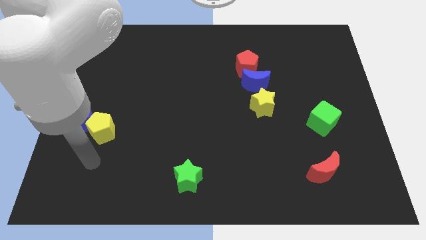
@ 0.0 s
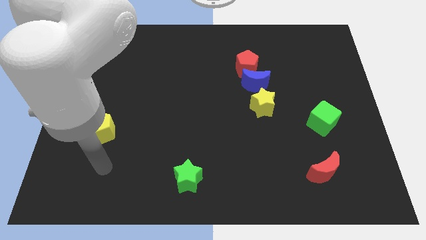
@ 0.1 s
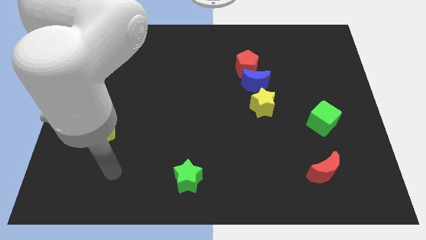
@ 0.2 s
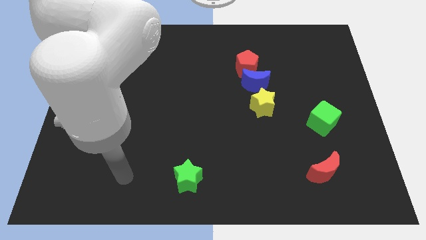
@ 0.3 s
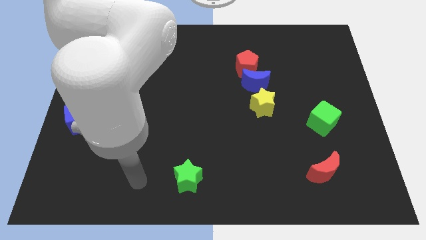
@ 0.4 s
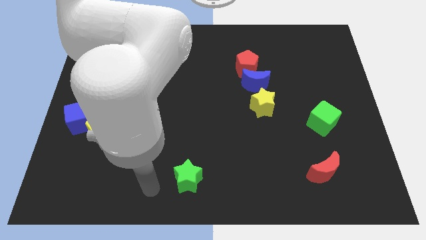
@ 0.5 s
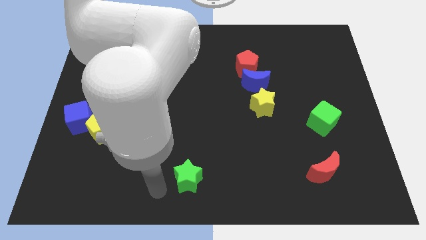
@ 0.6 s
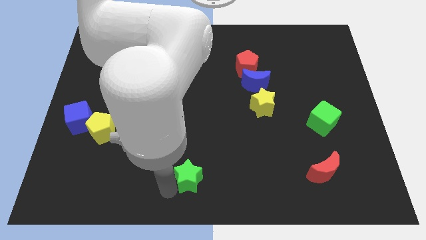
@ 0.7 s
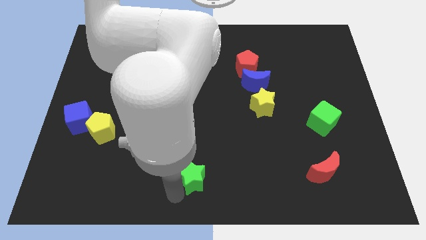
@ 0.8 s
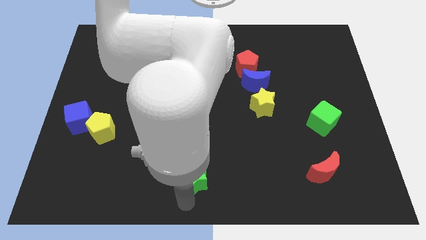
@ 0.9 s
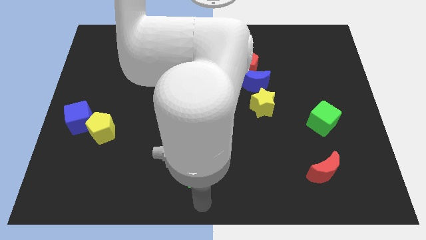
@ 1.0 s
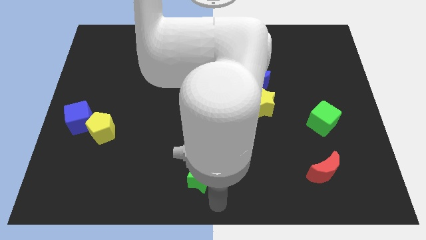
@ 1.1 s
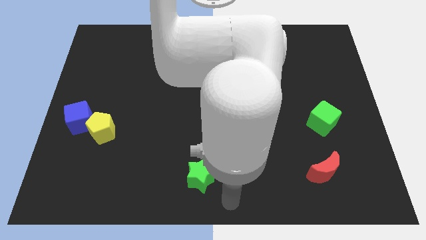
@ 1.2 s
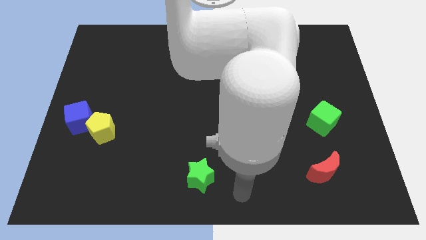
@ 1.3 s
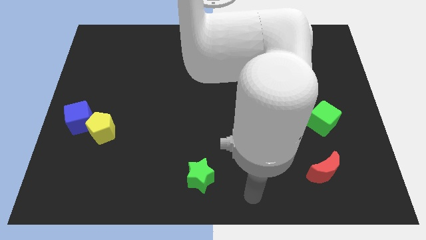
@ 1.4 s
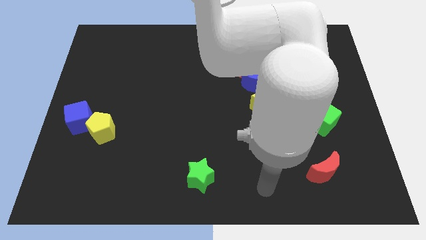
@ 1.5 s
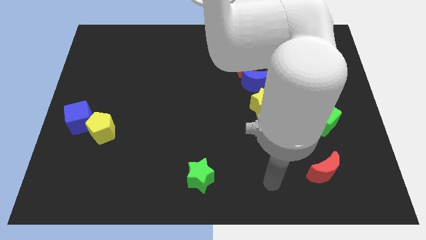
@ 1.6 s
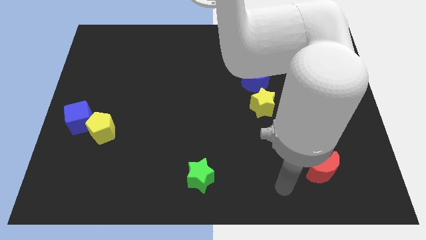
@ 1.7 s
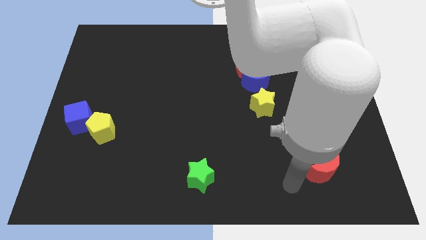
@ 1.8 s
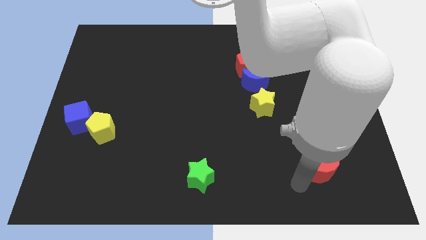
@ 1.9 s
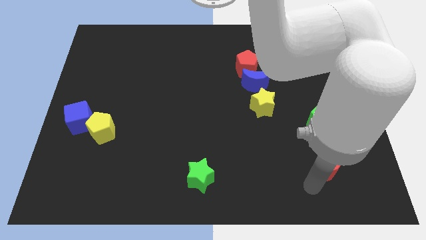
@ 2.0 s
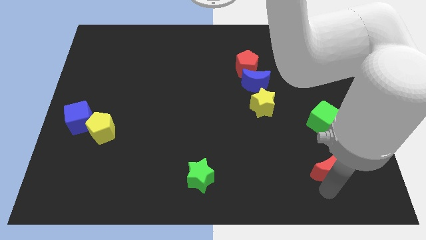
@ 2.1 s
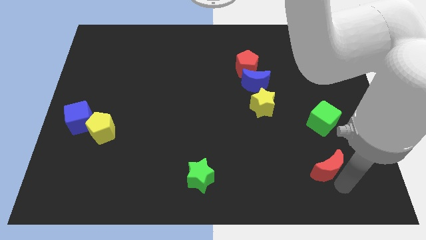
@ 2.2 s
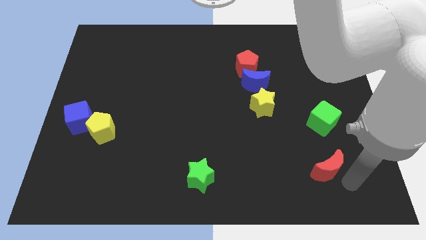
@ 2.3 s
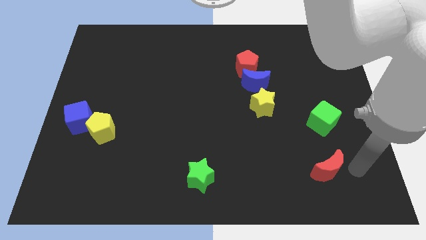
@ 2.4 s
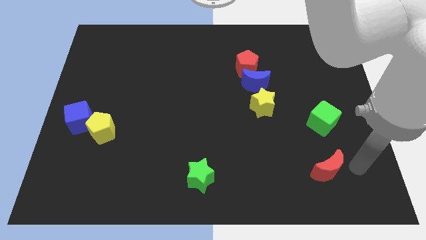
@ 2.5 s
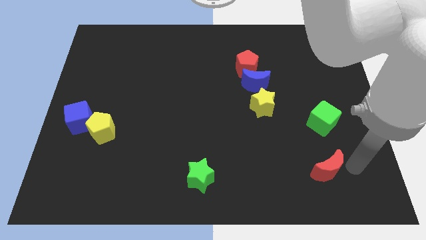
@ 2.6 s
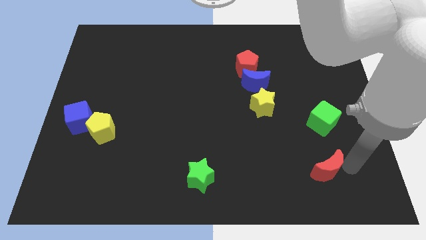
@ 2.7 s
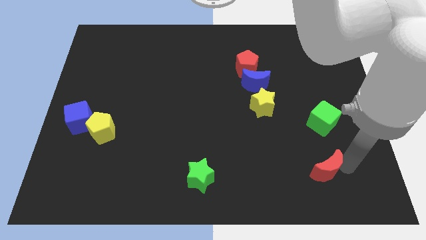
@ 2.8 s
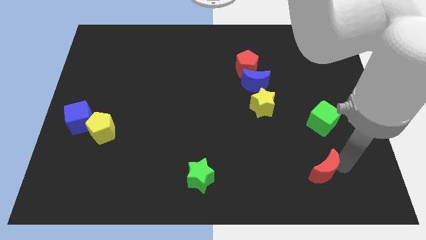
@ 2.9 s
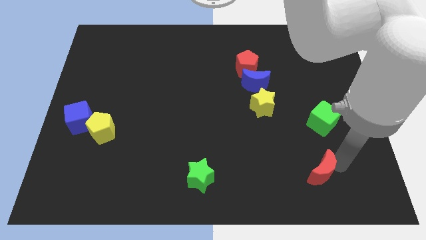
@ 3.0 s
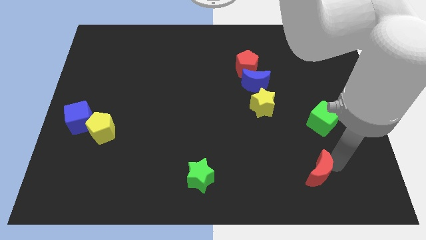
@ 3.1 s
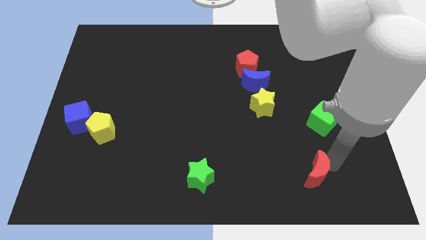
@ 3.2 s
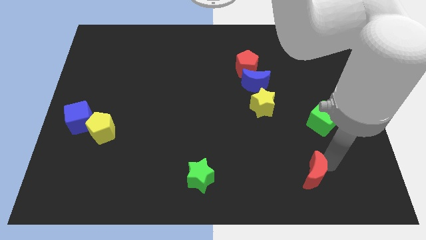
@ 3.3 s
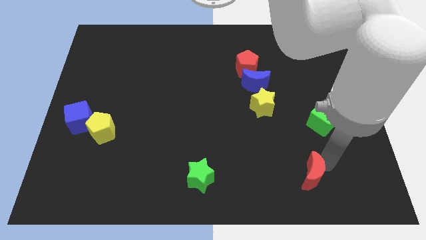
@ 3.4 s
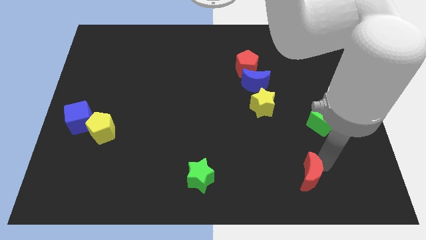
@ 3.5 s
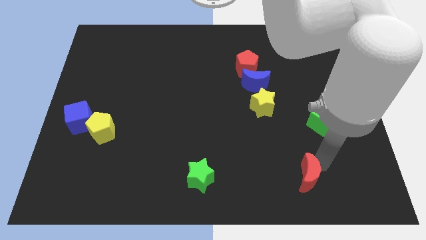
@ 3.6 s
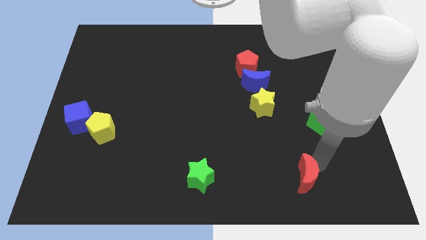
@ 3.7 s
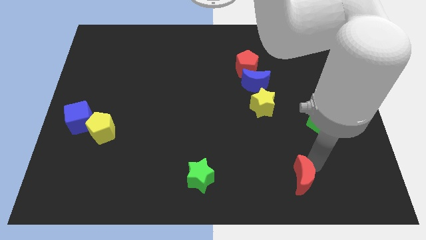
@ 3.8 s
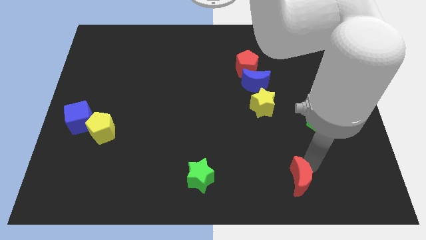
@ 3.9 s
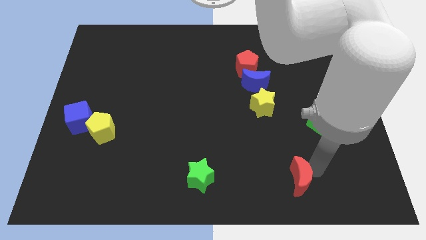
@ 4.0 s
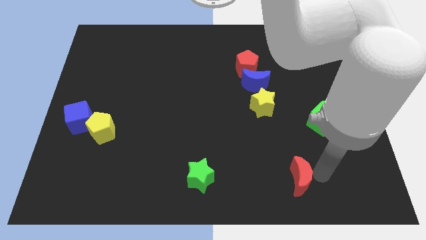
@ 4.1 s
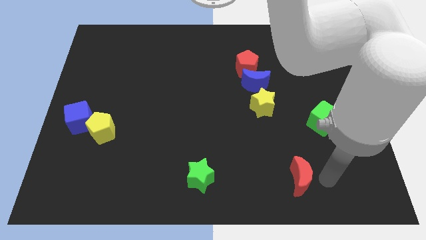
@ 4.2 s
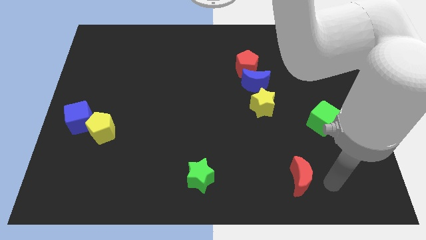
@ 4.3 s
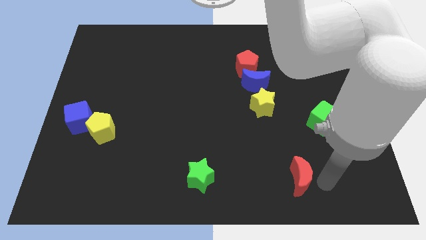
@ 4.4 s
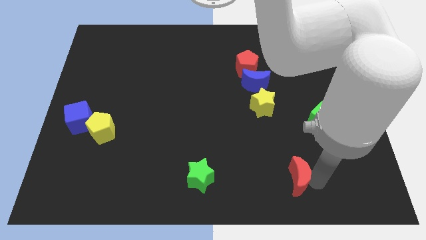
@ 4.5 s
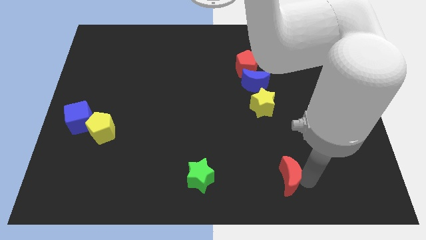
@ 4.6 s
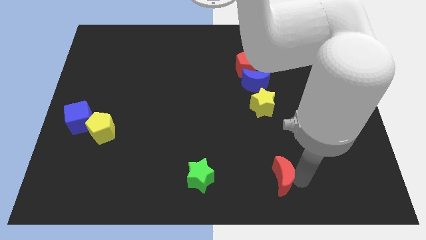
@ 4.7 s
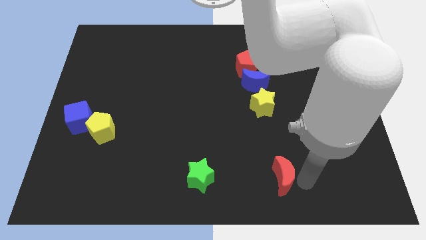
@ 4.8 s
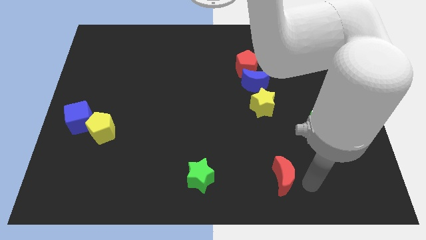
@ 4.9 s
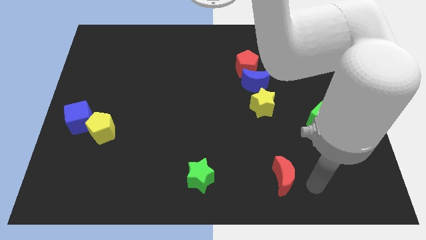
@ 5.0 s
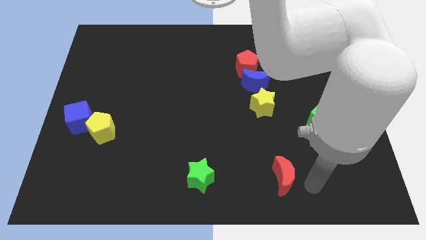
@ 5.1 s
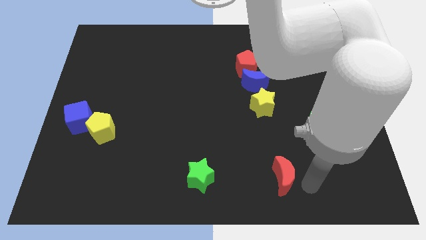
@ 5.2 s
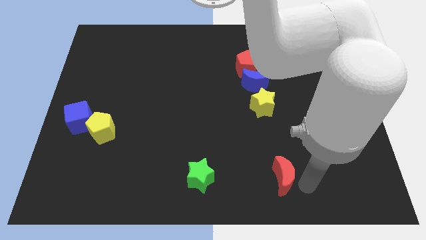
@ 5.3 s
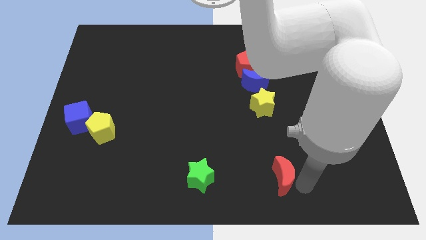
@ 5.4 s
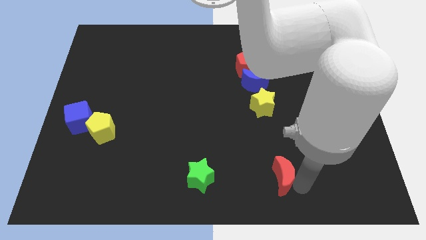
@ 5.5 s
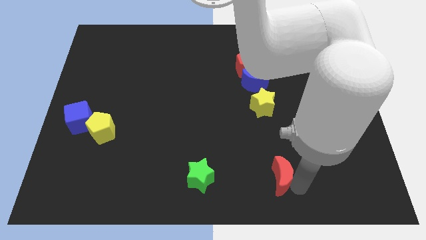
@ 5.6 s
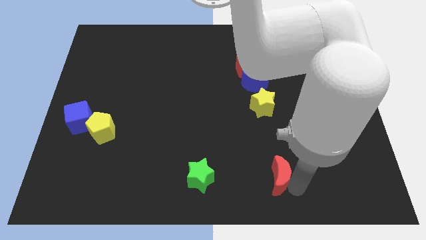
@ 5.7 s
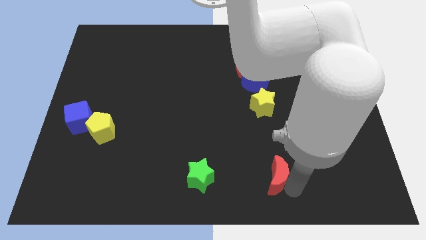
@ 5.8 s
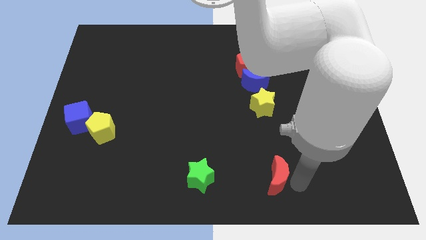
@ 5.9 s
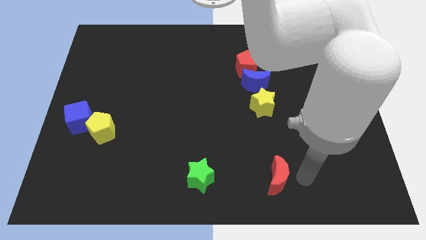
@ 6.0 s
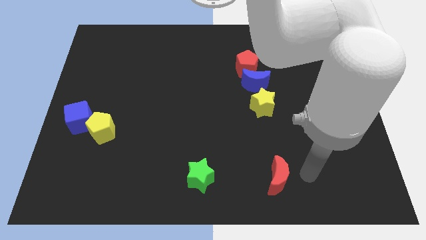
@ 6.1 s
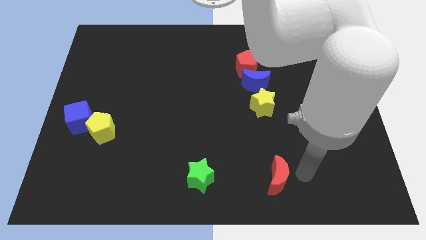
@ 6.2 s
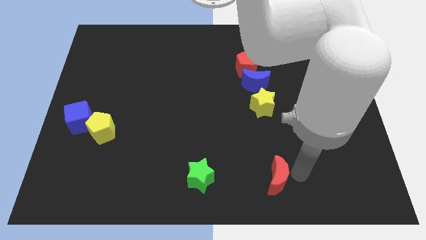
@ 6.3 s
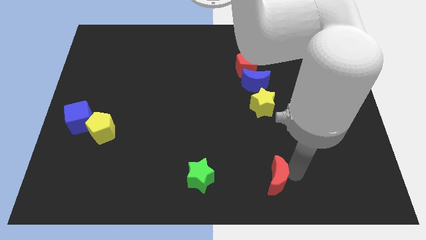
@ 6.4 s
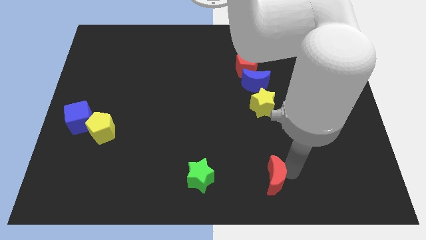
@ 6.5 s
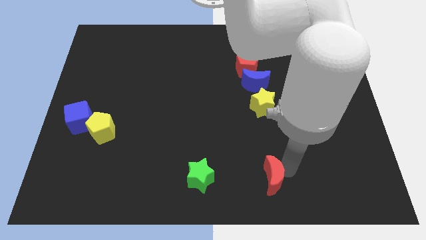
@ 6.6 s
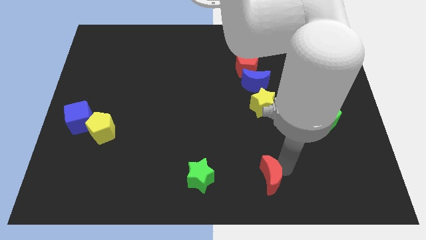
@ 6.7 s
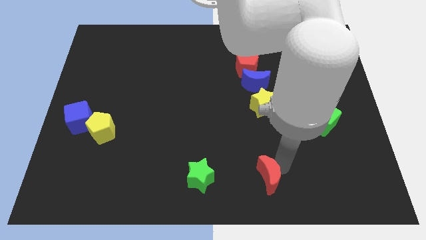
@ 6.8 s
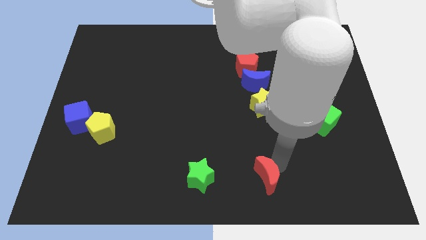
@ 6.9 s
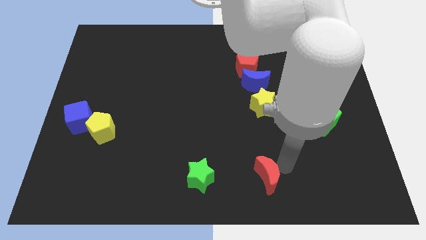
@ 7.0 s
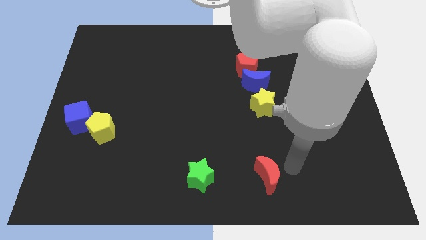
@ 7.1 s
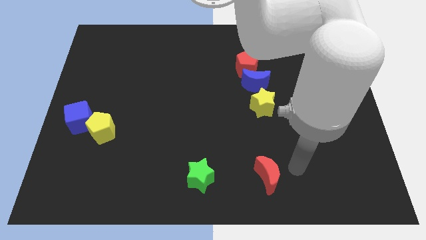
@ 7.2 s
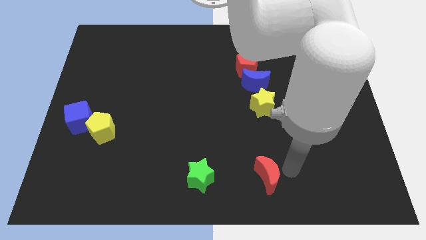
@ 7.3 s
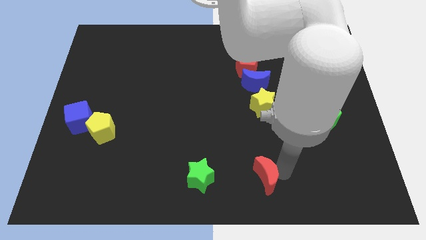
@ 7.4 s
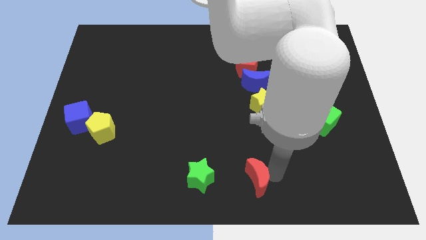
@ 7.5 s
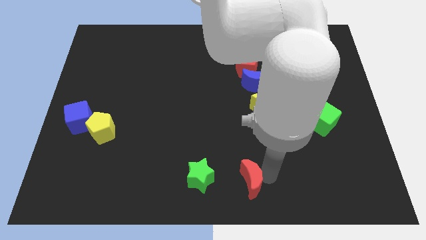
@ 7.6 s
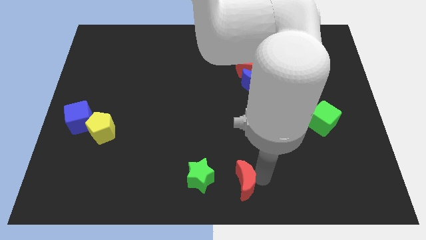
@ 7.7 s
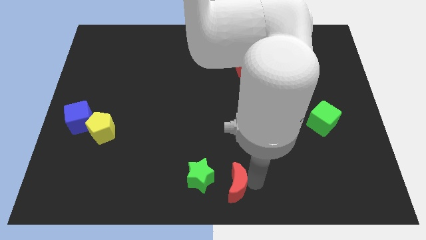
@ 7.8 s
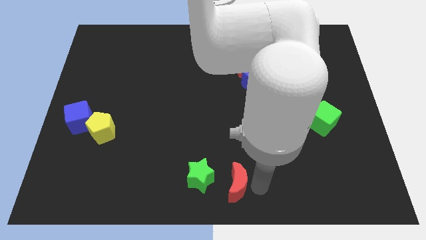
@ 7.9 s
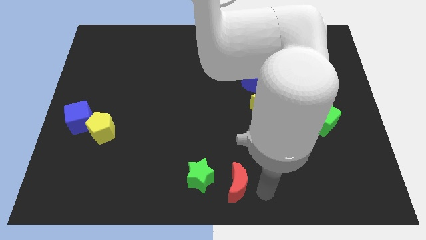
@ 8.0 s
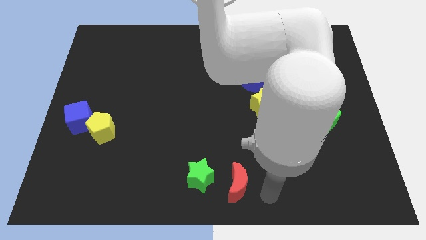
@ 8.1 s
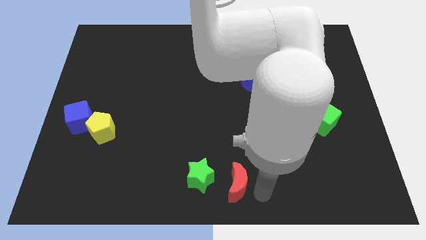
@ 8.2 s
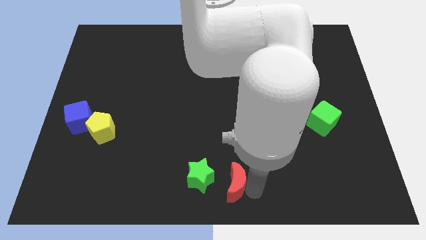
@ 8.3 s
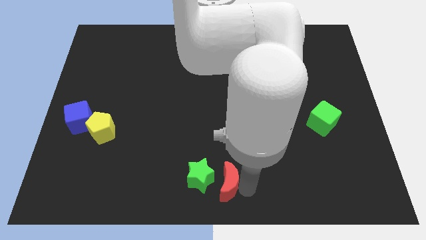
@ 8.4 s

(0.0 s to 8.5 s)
move the red moon close to the green star
